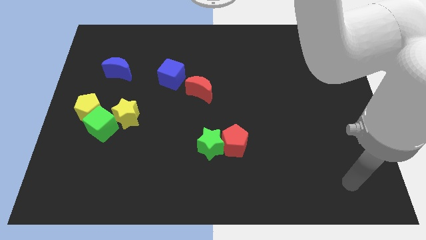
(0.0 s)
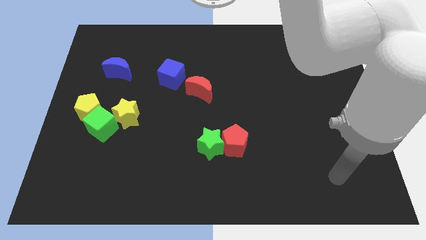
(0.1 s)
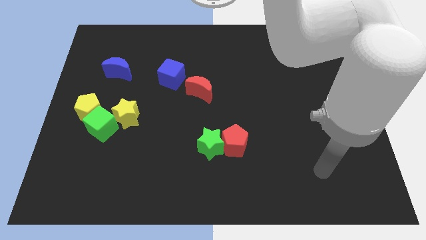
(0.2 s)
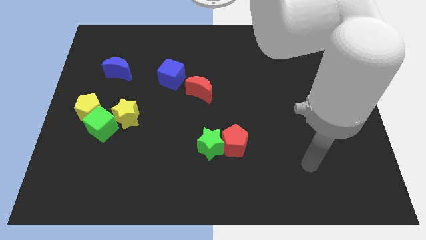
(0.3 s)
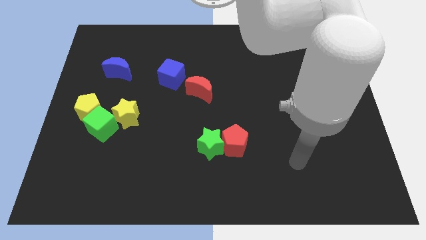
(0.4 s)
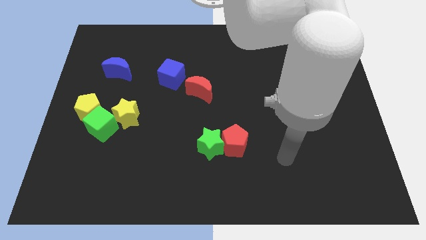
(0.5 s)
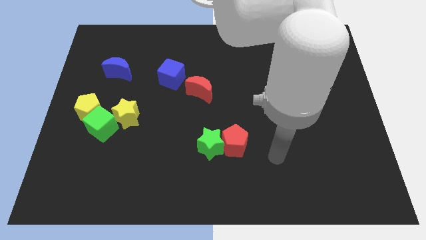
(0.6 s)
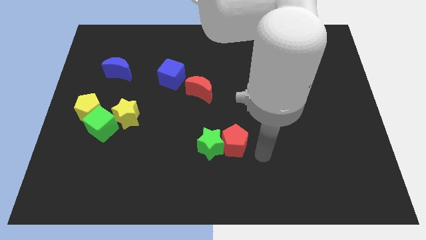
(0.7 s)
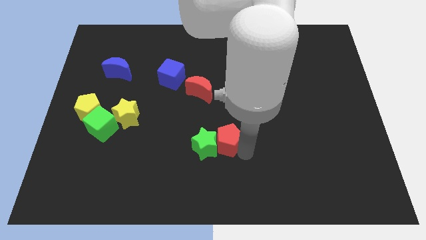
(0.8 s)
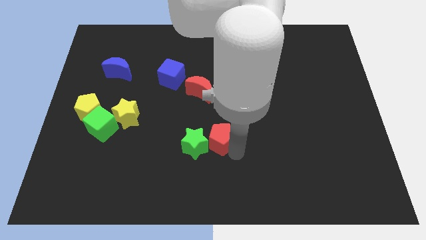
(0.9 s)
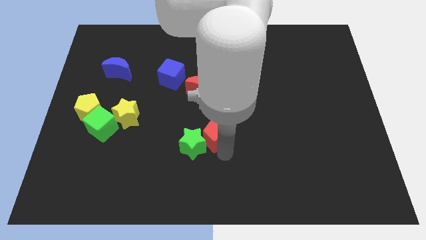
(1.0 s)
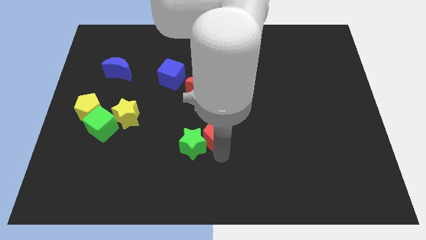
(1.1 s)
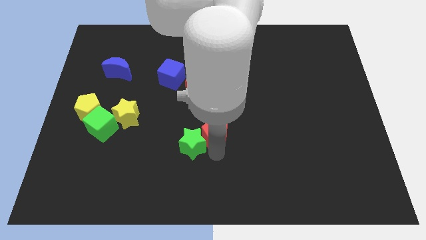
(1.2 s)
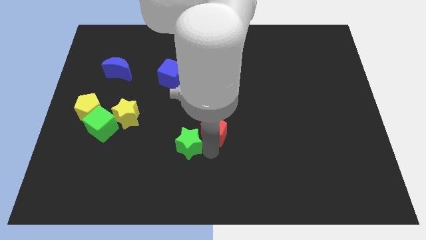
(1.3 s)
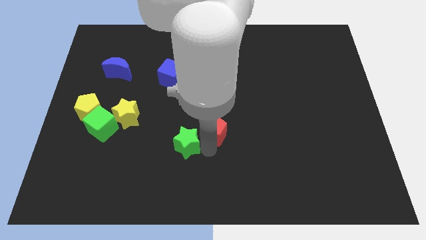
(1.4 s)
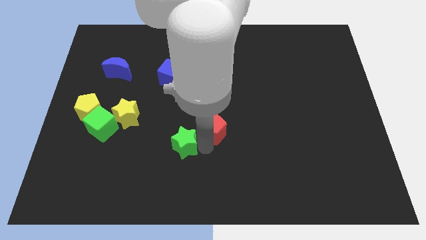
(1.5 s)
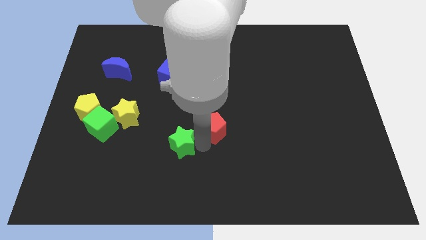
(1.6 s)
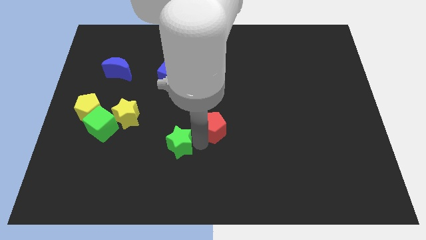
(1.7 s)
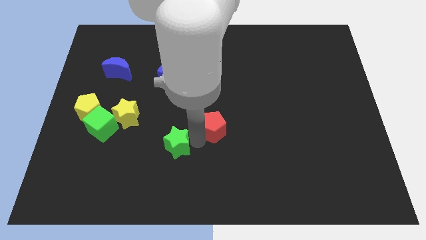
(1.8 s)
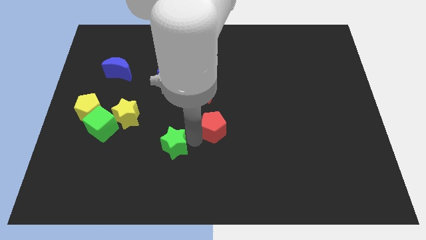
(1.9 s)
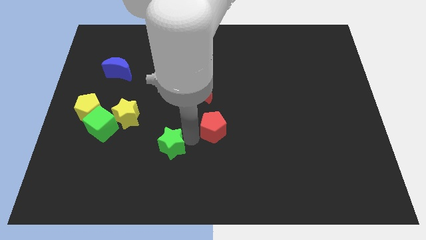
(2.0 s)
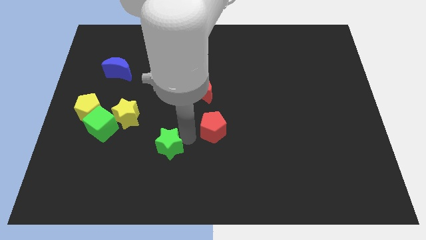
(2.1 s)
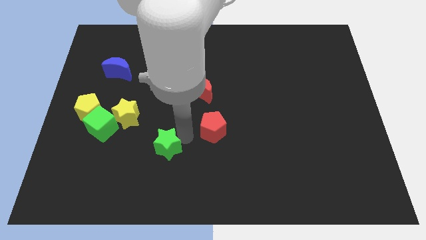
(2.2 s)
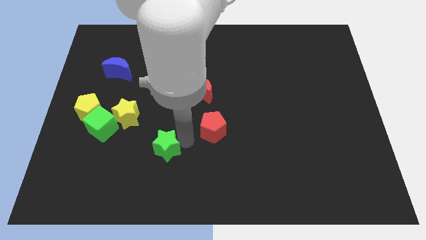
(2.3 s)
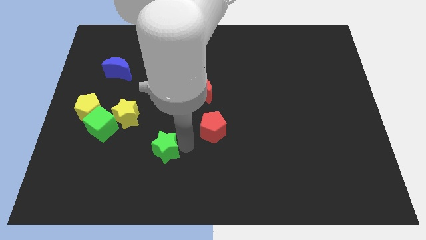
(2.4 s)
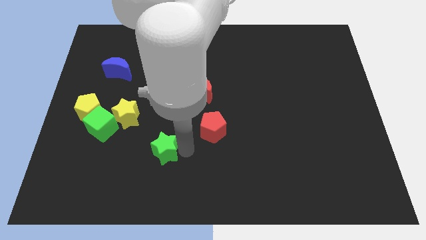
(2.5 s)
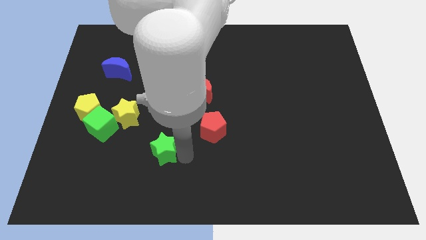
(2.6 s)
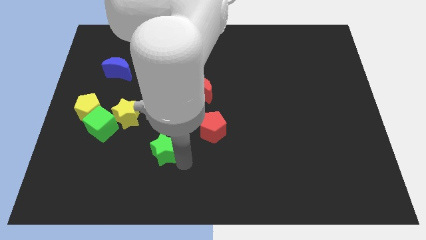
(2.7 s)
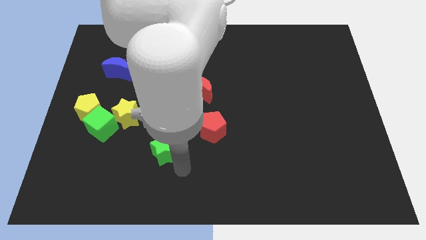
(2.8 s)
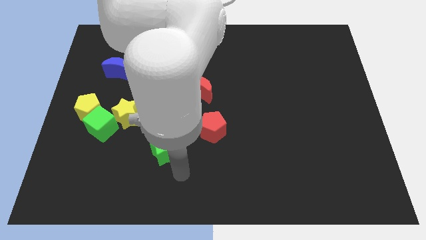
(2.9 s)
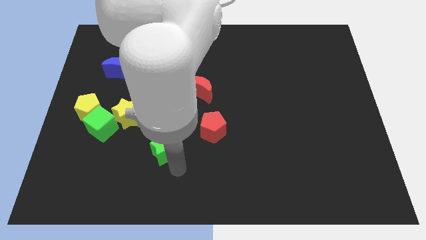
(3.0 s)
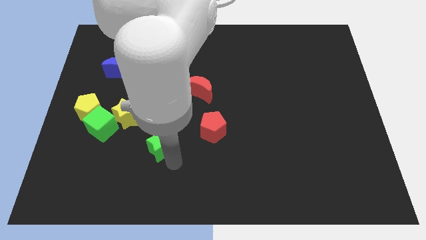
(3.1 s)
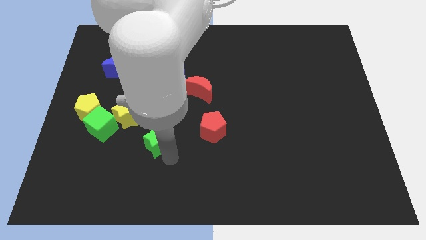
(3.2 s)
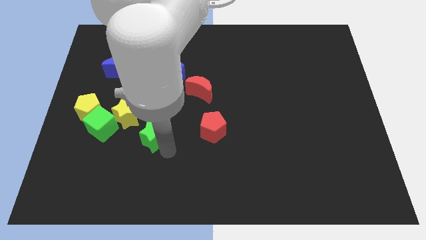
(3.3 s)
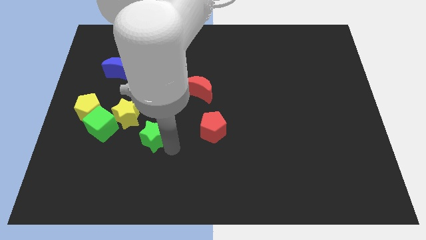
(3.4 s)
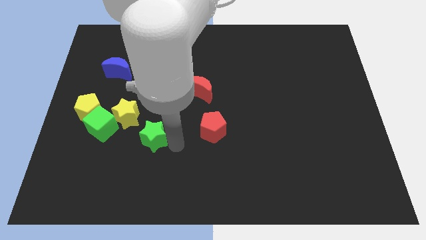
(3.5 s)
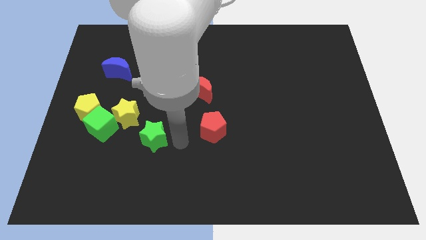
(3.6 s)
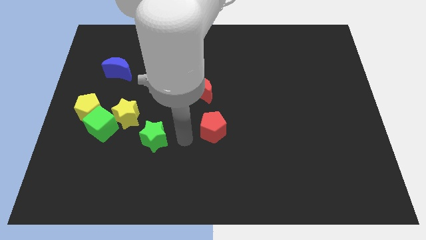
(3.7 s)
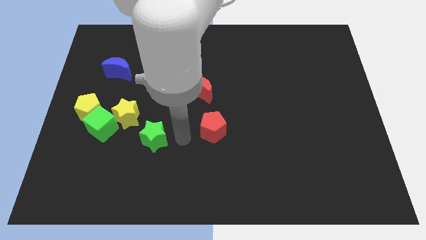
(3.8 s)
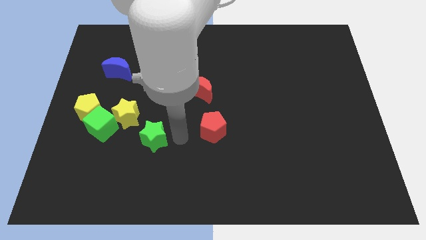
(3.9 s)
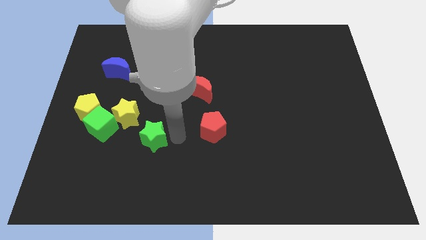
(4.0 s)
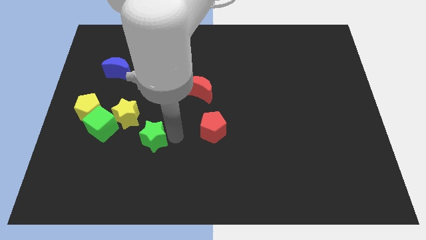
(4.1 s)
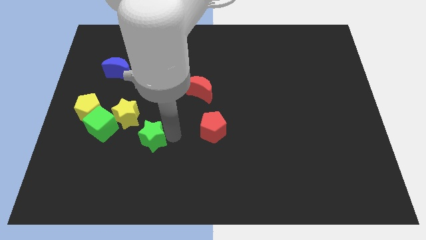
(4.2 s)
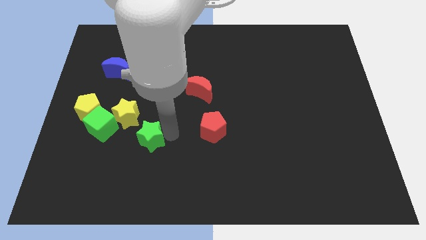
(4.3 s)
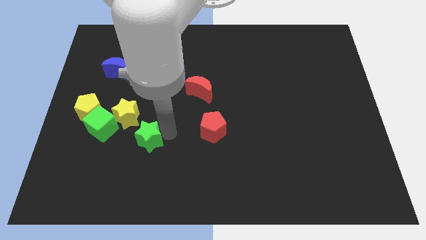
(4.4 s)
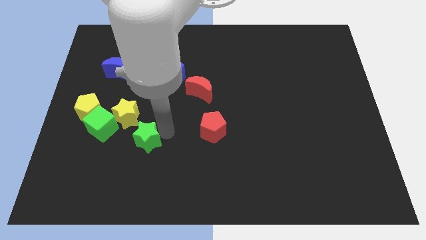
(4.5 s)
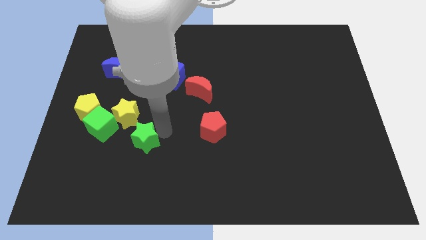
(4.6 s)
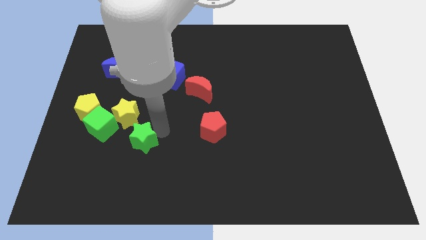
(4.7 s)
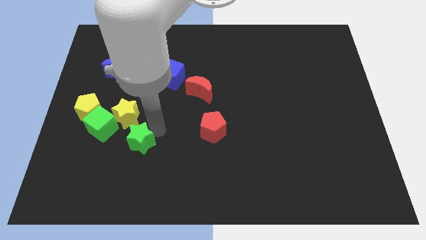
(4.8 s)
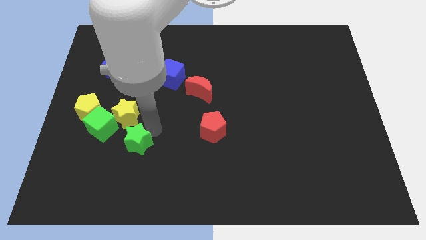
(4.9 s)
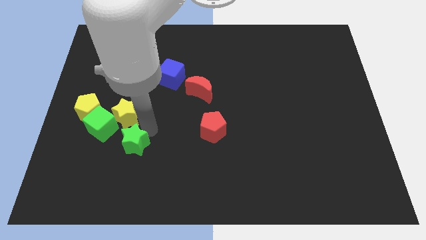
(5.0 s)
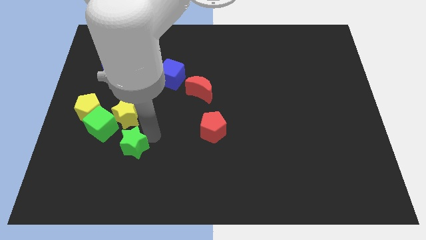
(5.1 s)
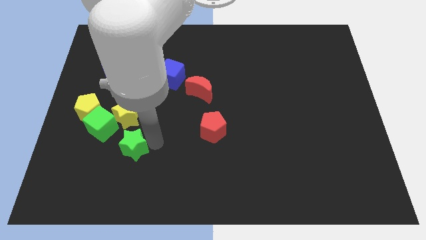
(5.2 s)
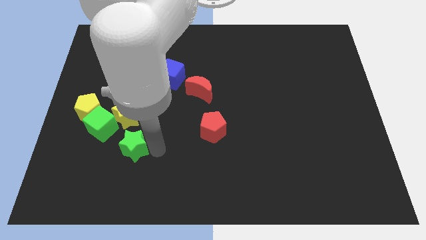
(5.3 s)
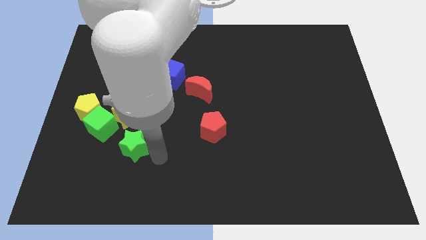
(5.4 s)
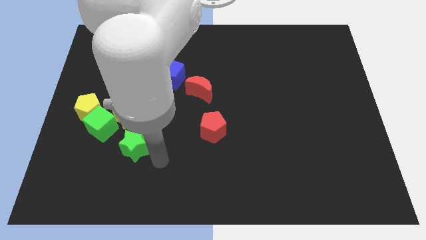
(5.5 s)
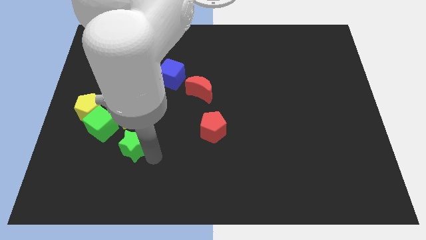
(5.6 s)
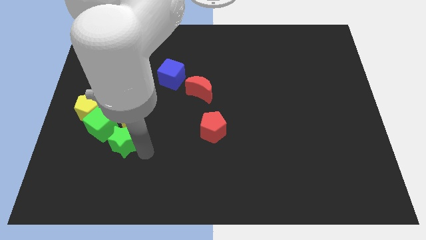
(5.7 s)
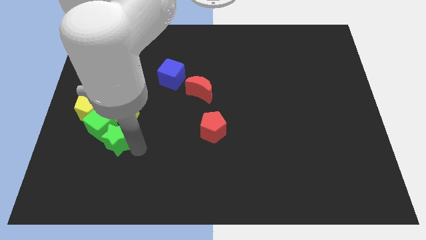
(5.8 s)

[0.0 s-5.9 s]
push the green star towards the green cube

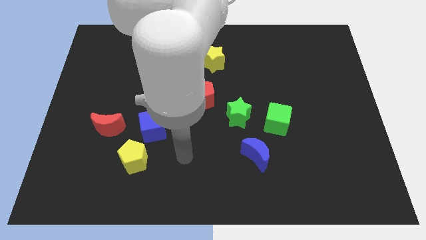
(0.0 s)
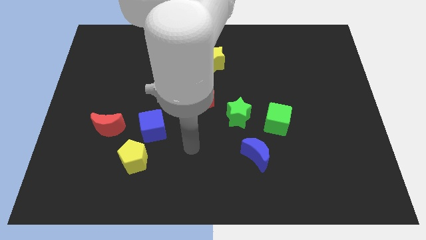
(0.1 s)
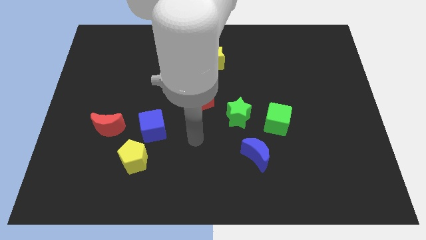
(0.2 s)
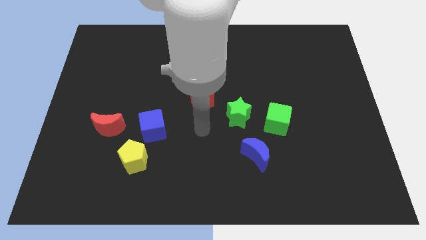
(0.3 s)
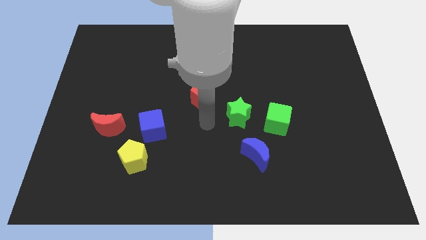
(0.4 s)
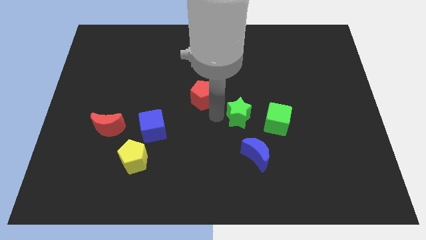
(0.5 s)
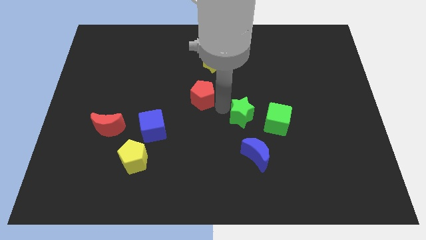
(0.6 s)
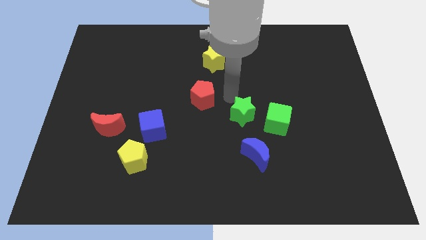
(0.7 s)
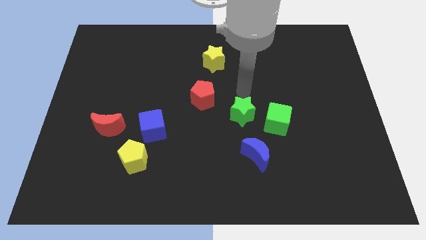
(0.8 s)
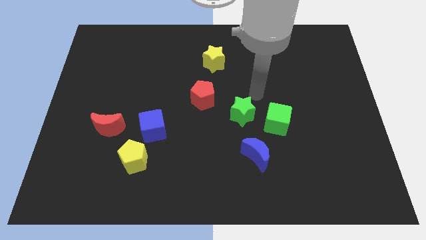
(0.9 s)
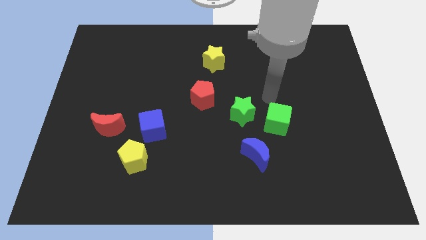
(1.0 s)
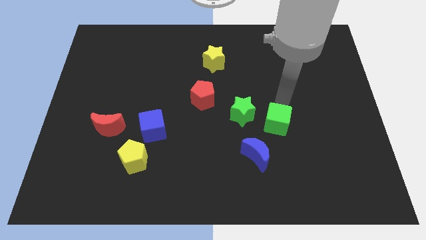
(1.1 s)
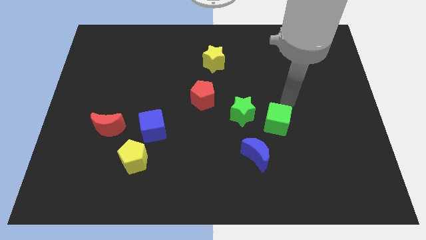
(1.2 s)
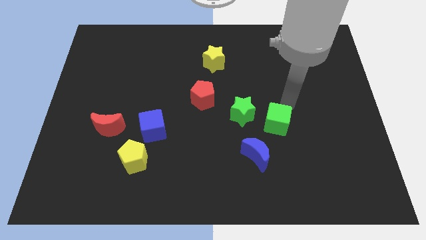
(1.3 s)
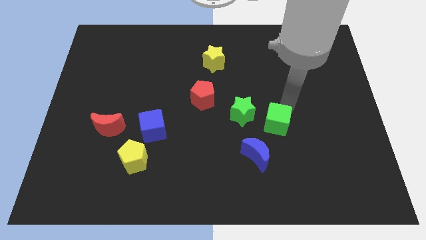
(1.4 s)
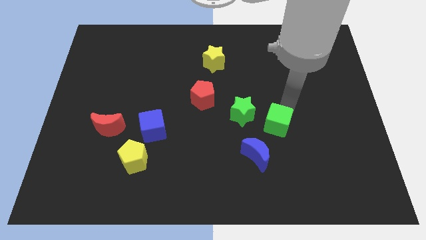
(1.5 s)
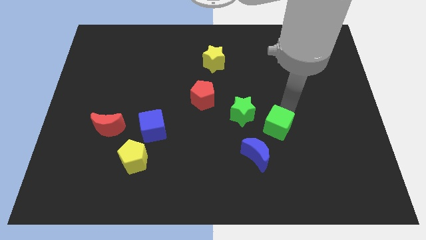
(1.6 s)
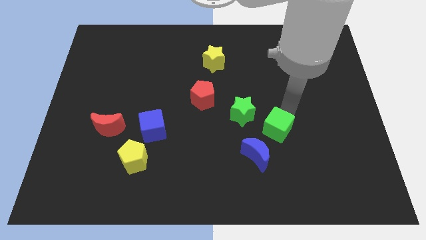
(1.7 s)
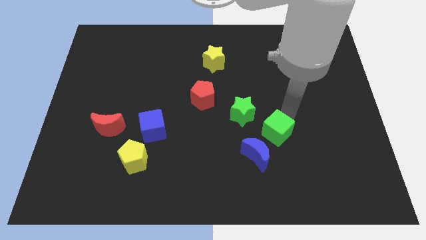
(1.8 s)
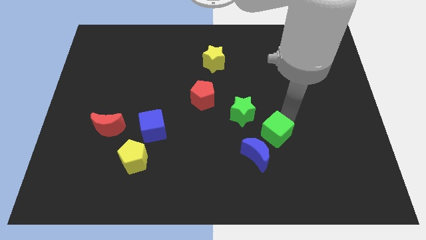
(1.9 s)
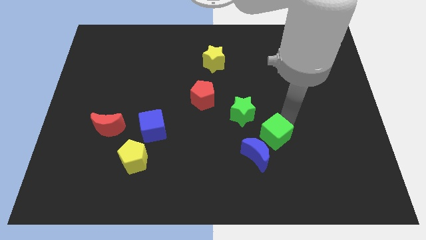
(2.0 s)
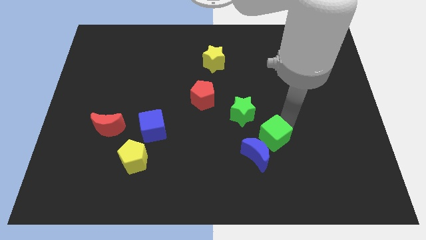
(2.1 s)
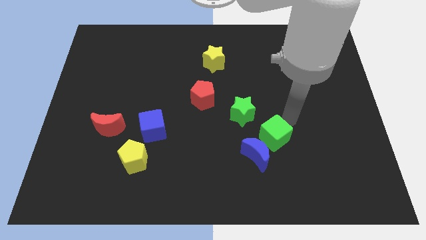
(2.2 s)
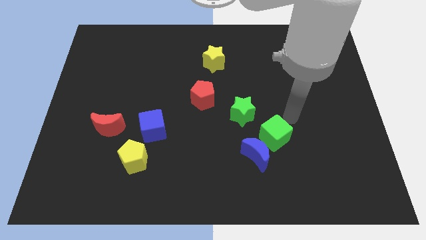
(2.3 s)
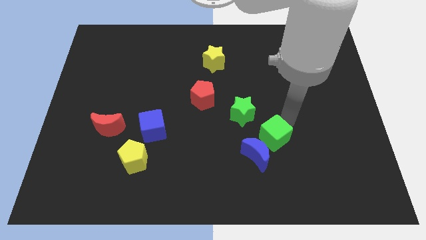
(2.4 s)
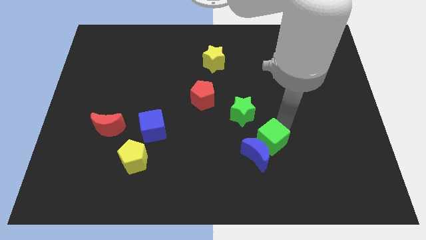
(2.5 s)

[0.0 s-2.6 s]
slide the green cube to the blue moon
